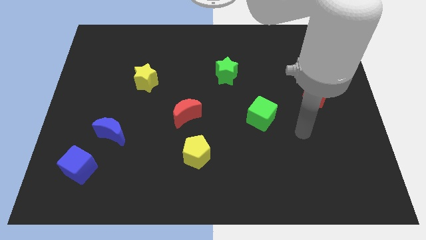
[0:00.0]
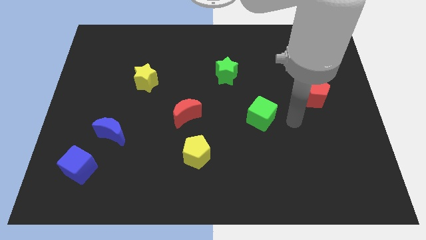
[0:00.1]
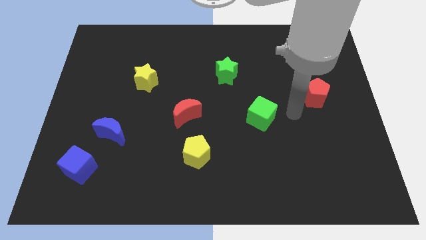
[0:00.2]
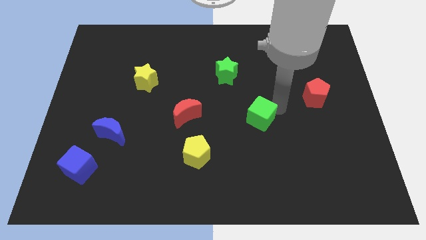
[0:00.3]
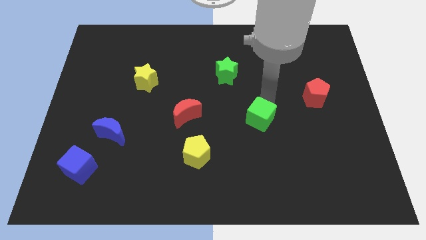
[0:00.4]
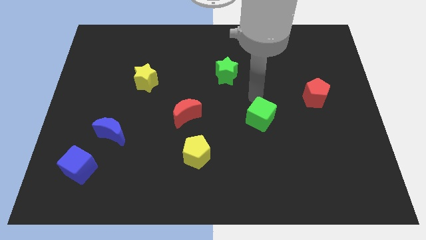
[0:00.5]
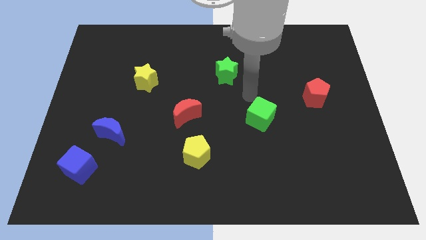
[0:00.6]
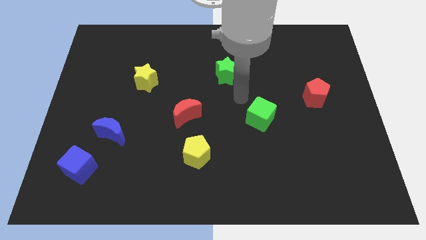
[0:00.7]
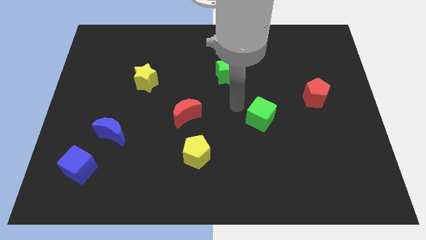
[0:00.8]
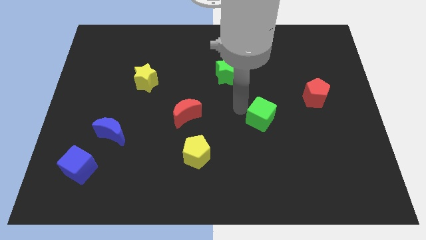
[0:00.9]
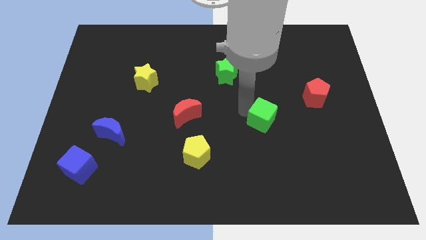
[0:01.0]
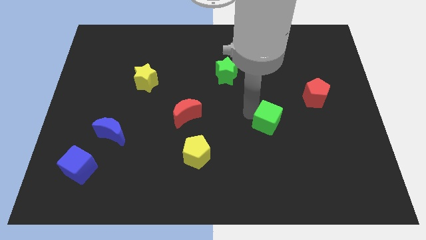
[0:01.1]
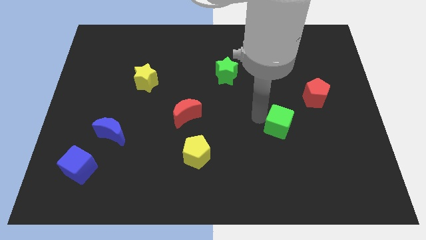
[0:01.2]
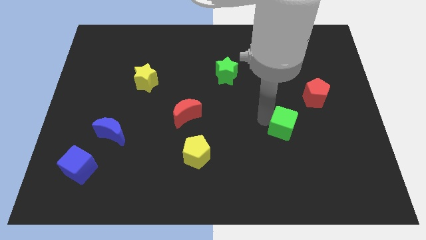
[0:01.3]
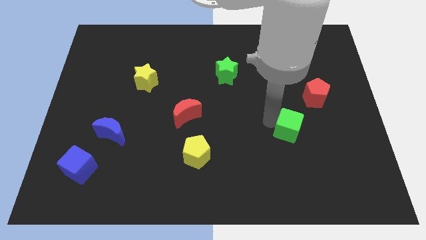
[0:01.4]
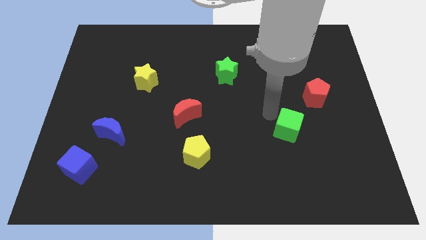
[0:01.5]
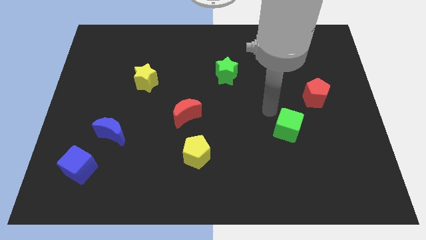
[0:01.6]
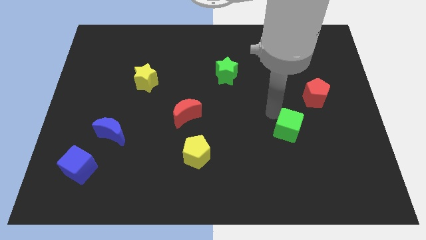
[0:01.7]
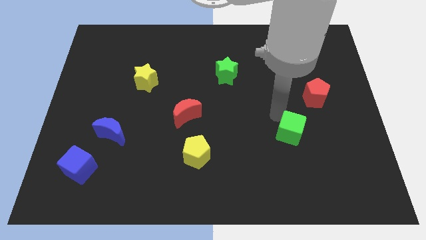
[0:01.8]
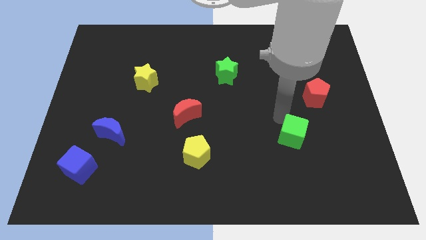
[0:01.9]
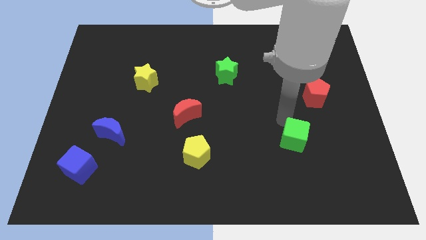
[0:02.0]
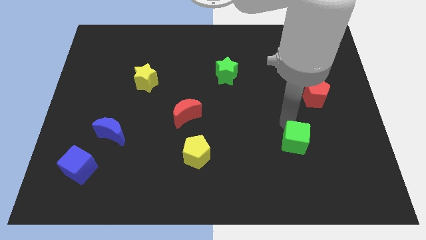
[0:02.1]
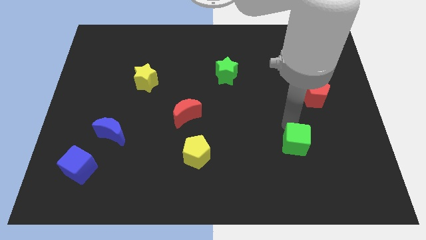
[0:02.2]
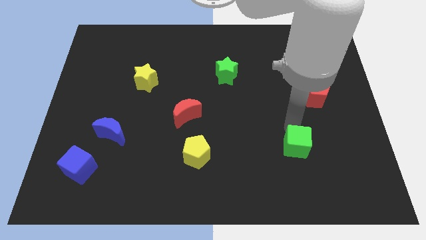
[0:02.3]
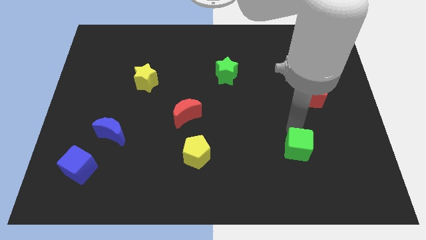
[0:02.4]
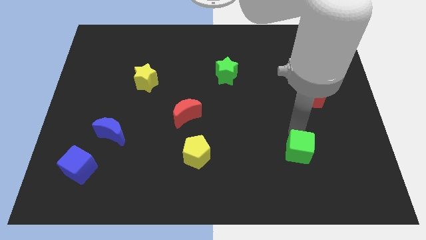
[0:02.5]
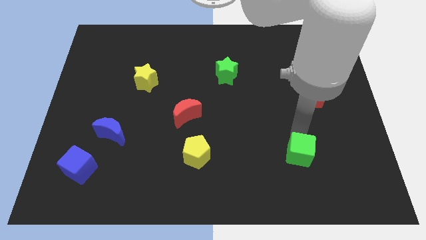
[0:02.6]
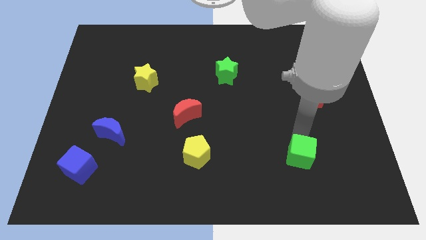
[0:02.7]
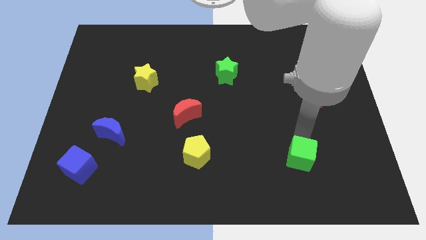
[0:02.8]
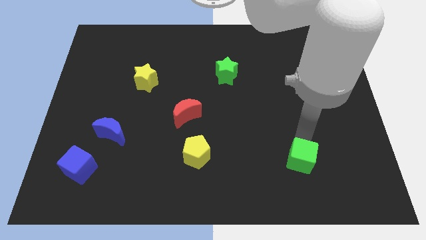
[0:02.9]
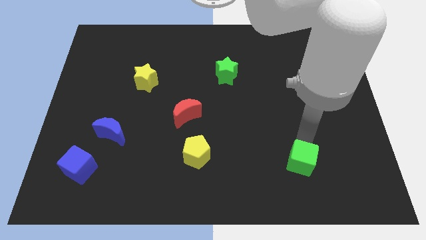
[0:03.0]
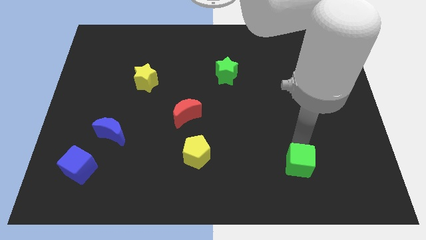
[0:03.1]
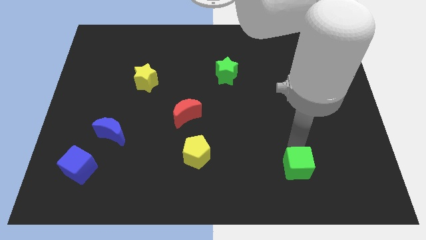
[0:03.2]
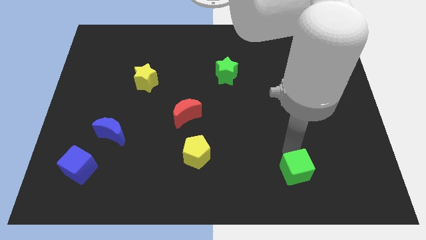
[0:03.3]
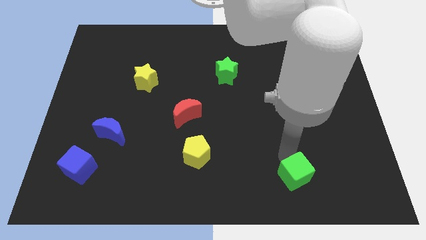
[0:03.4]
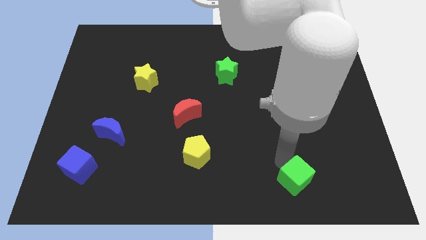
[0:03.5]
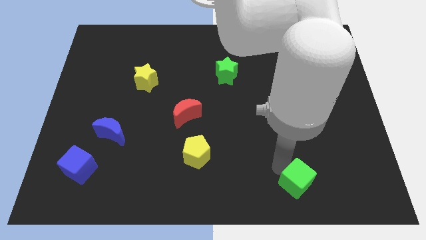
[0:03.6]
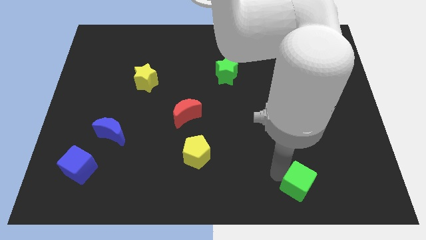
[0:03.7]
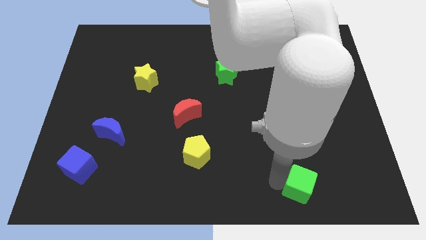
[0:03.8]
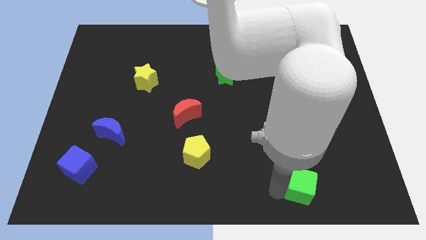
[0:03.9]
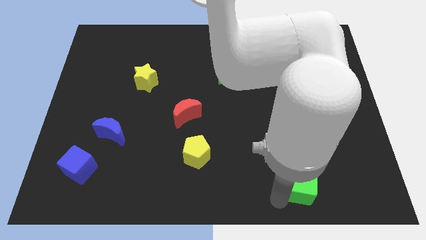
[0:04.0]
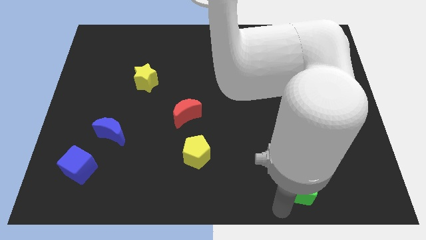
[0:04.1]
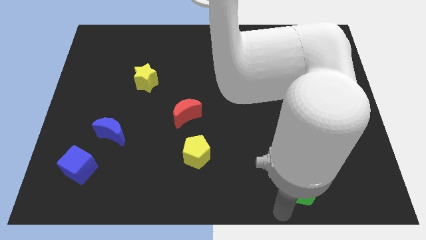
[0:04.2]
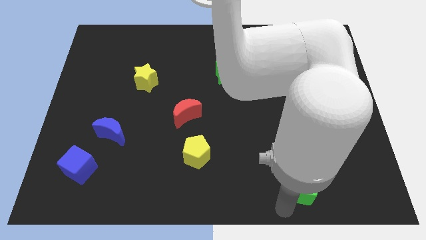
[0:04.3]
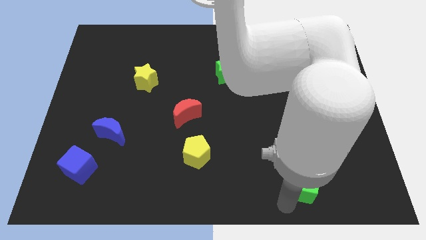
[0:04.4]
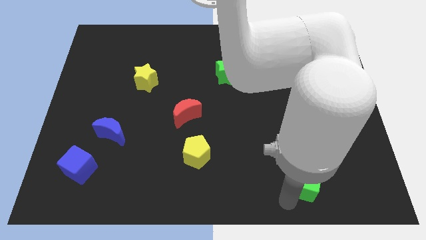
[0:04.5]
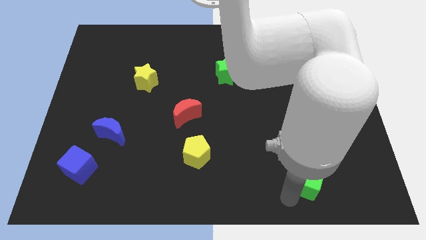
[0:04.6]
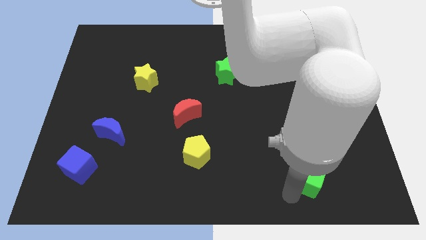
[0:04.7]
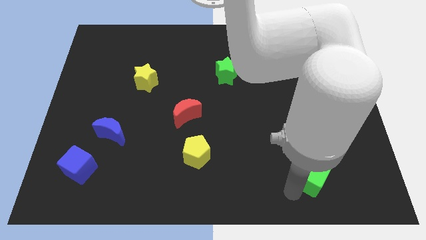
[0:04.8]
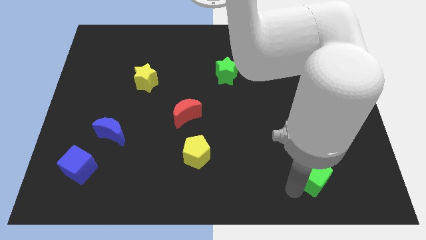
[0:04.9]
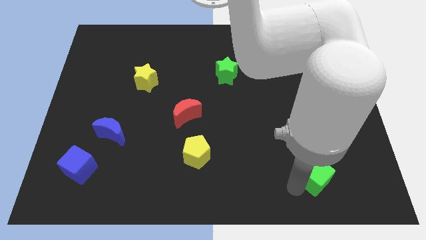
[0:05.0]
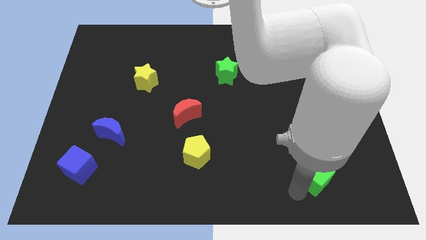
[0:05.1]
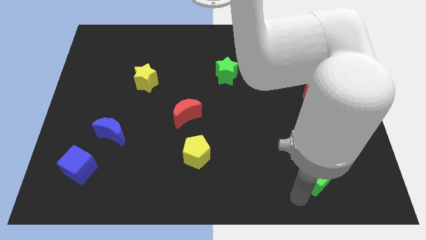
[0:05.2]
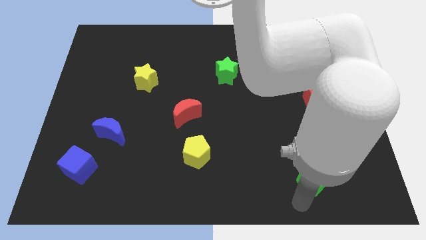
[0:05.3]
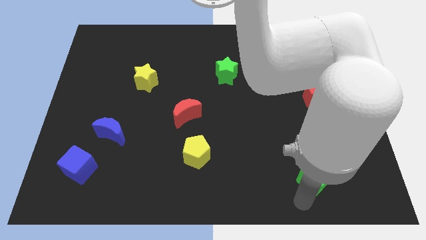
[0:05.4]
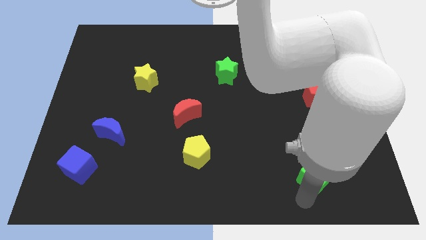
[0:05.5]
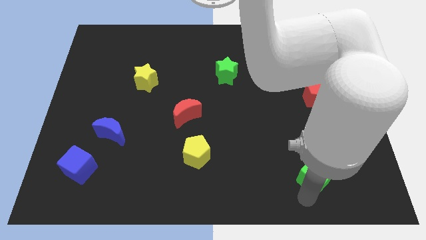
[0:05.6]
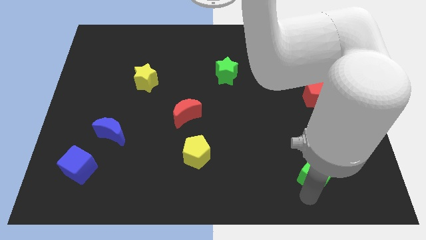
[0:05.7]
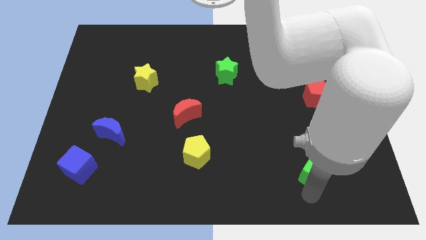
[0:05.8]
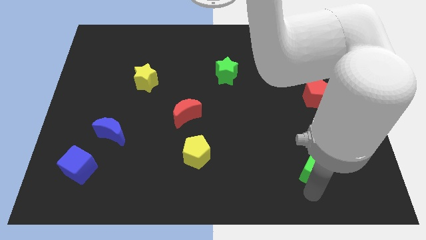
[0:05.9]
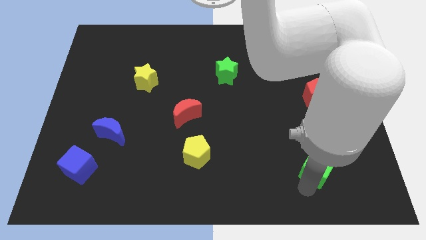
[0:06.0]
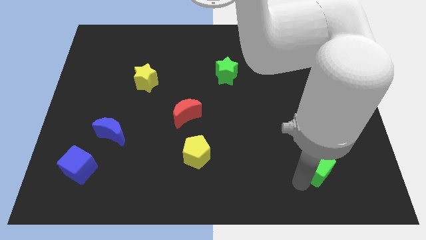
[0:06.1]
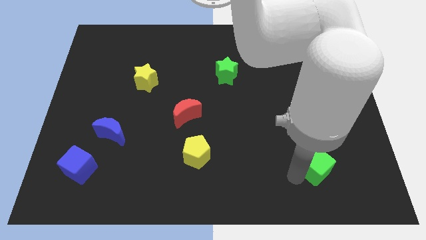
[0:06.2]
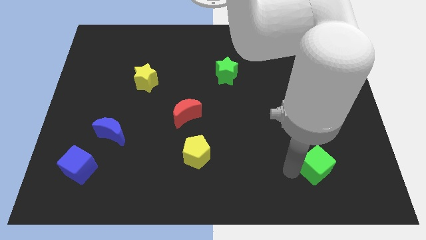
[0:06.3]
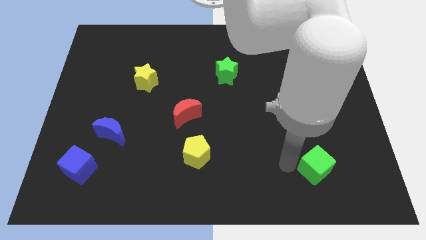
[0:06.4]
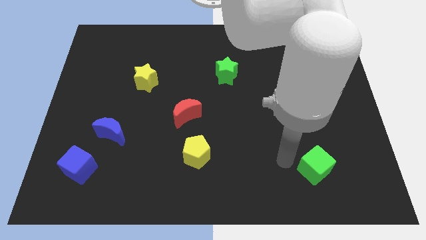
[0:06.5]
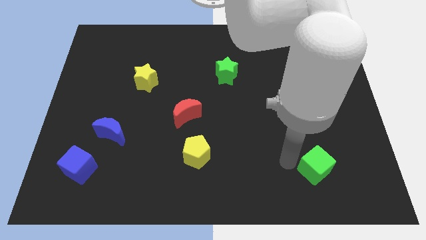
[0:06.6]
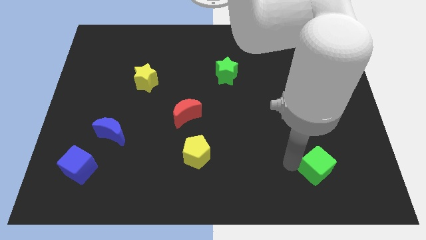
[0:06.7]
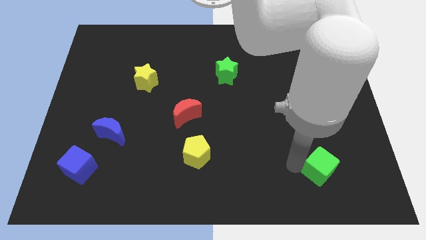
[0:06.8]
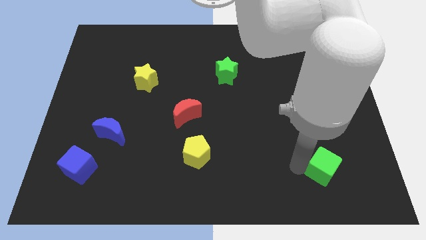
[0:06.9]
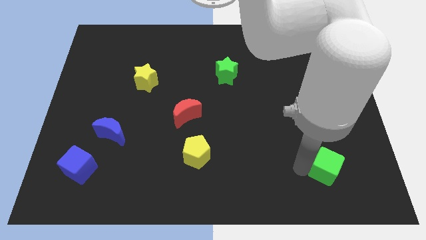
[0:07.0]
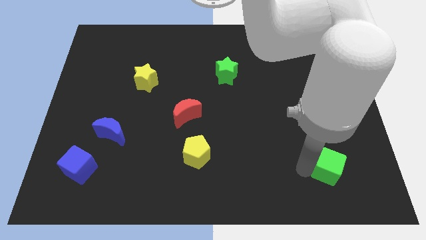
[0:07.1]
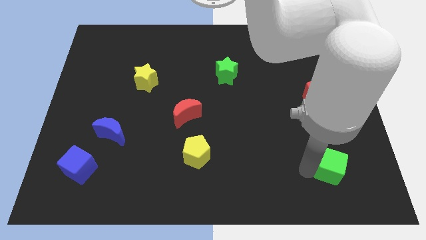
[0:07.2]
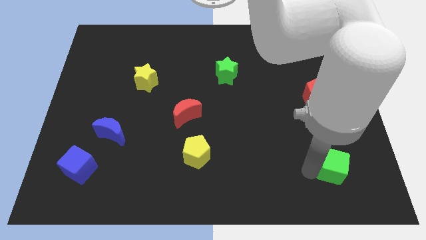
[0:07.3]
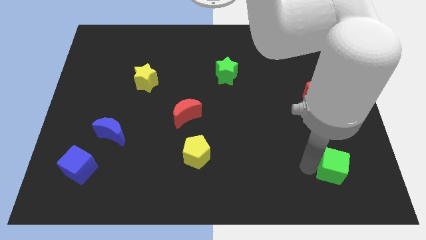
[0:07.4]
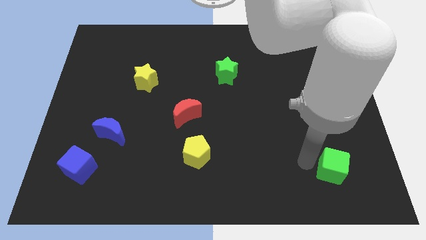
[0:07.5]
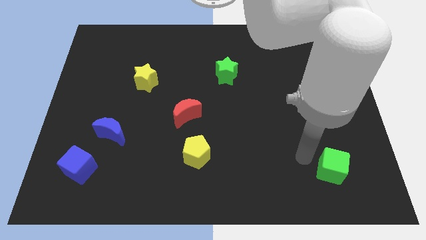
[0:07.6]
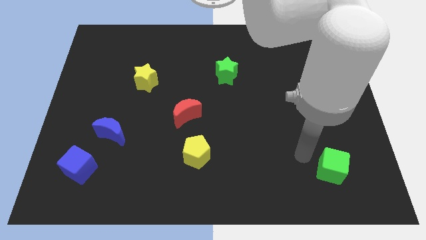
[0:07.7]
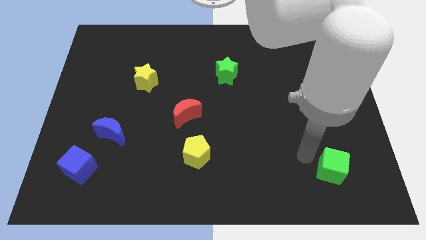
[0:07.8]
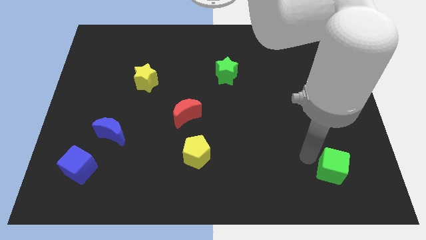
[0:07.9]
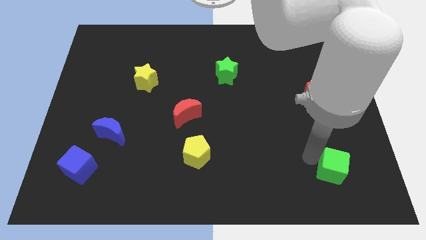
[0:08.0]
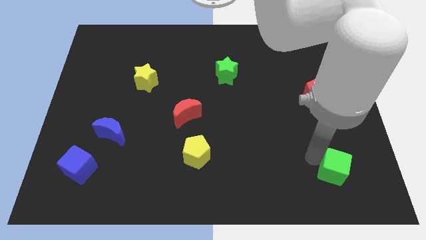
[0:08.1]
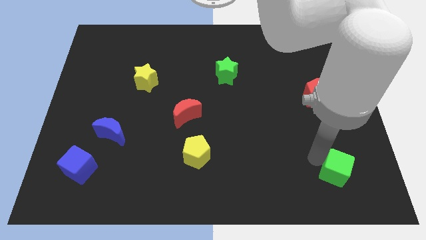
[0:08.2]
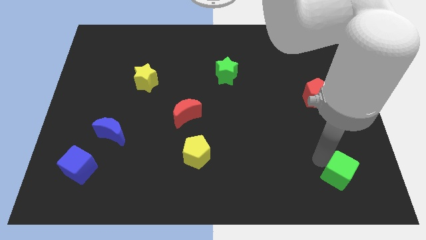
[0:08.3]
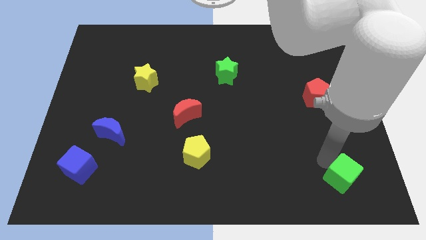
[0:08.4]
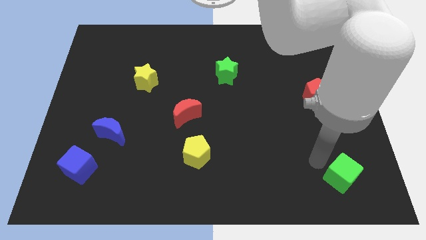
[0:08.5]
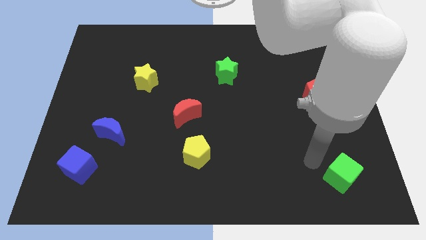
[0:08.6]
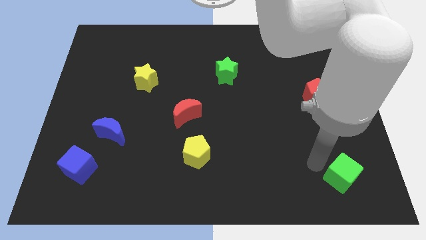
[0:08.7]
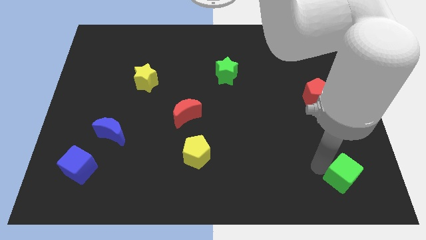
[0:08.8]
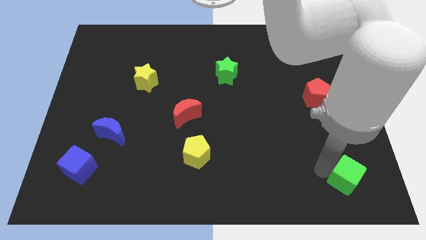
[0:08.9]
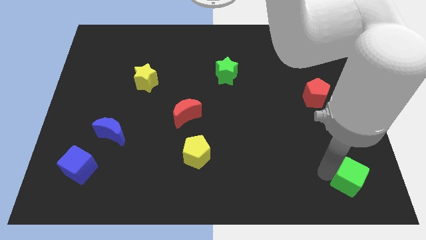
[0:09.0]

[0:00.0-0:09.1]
slide the green cube to the bottom right corner
